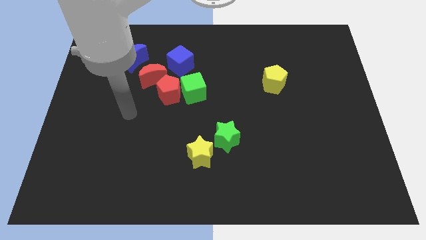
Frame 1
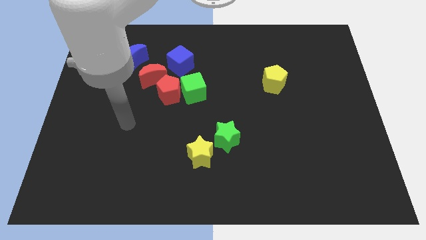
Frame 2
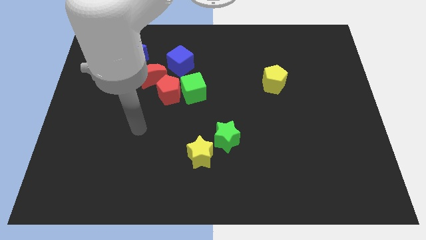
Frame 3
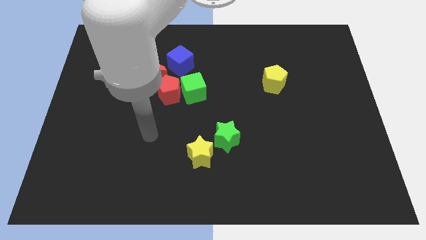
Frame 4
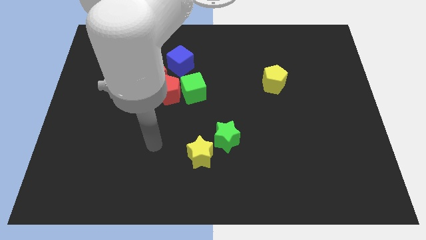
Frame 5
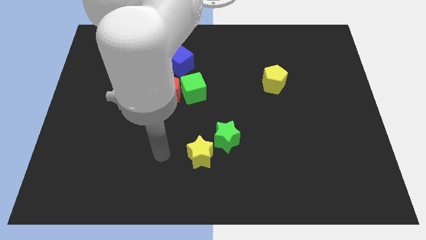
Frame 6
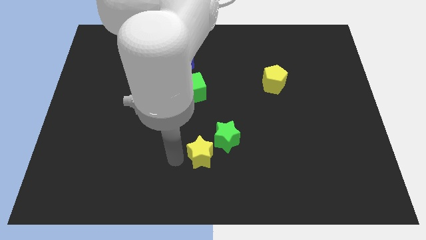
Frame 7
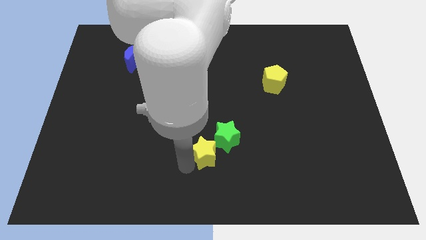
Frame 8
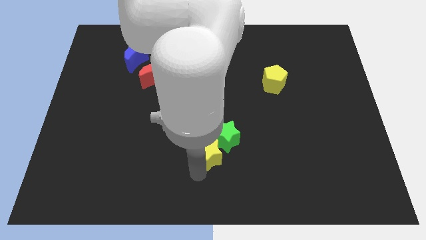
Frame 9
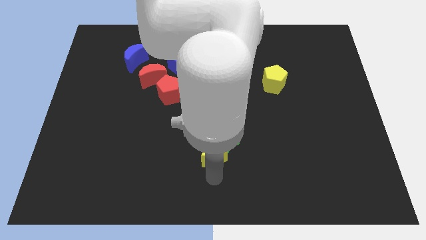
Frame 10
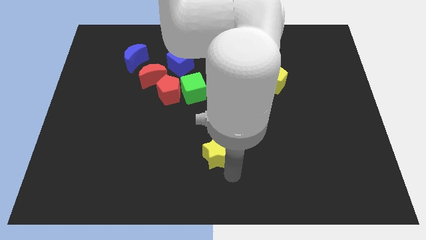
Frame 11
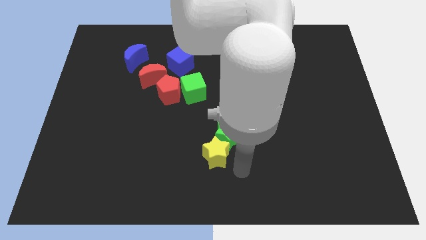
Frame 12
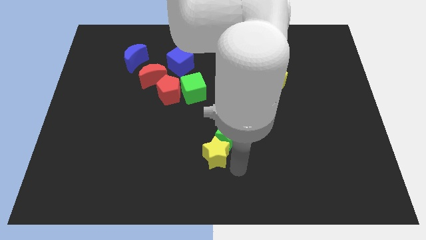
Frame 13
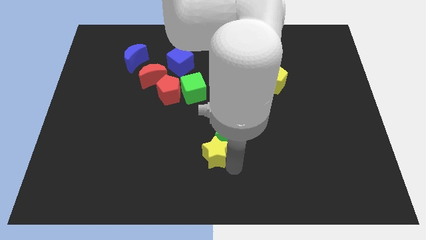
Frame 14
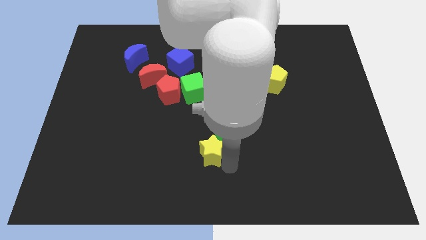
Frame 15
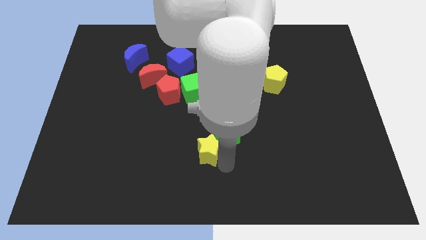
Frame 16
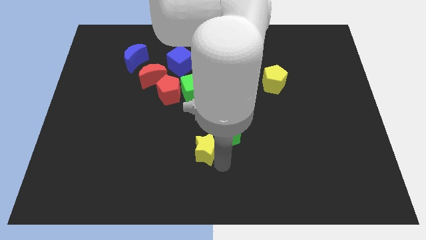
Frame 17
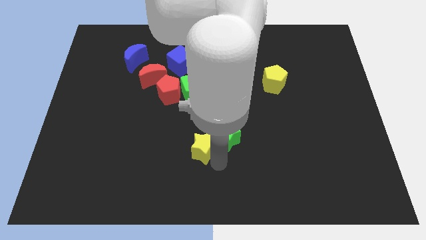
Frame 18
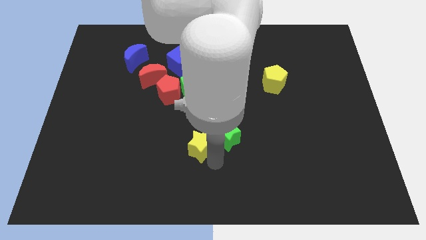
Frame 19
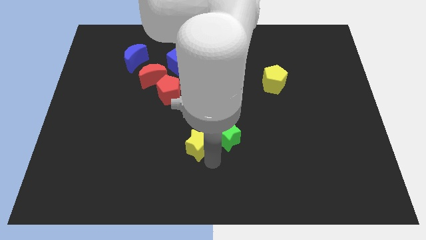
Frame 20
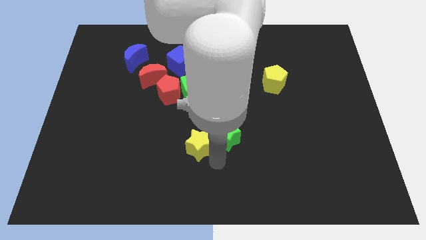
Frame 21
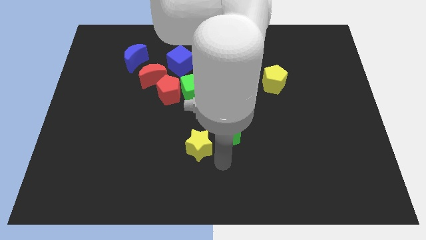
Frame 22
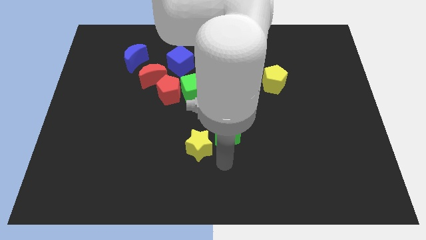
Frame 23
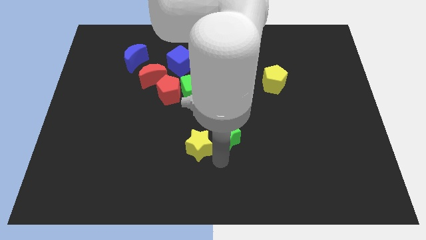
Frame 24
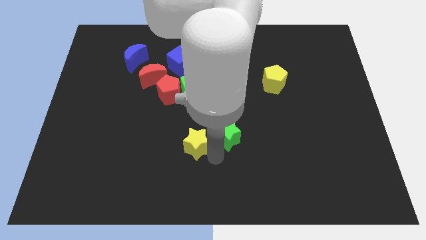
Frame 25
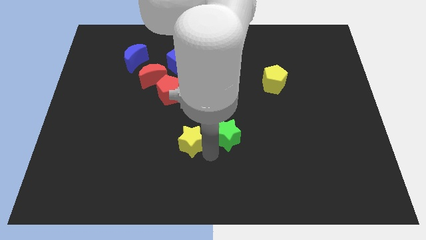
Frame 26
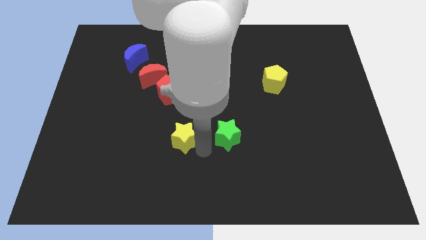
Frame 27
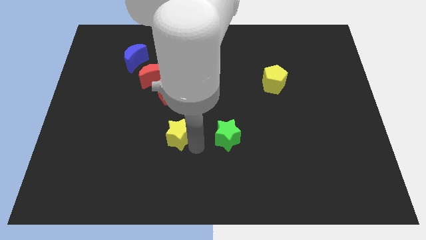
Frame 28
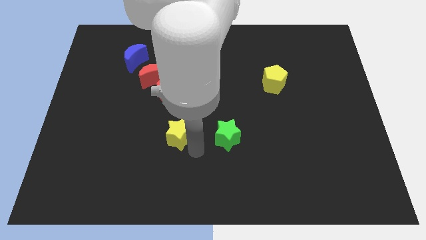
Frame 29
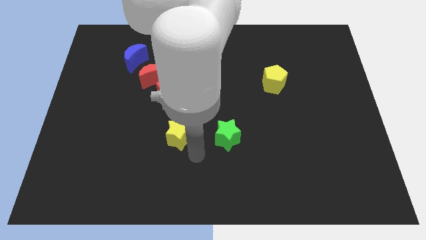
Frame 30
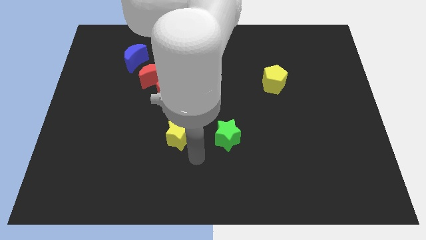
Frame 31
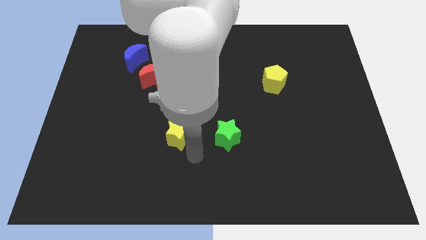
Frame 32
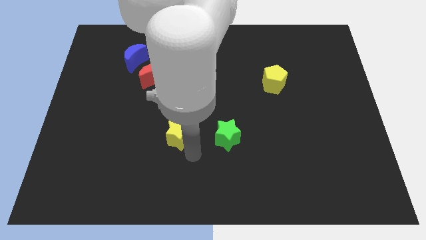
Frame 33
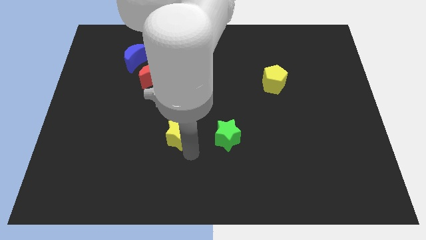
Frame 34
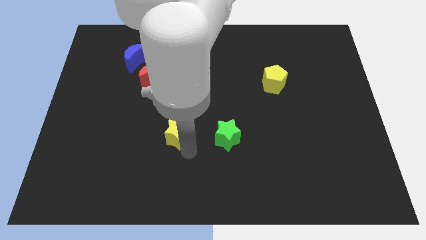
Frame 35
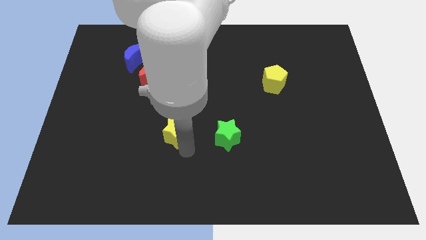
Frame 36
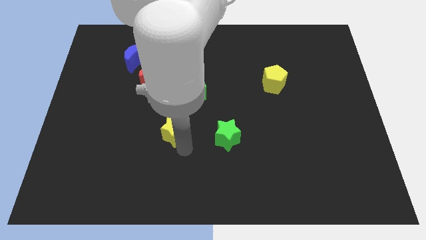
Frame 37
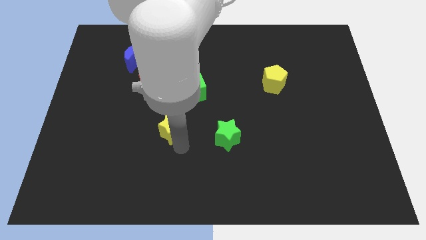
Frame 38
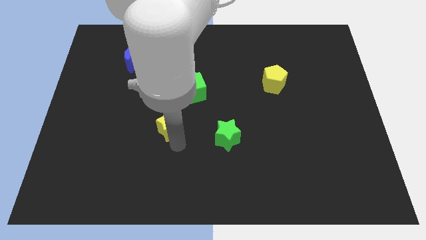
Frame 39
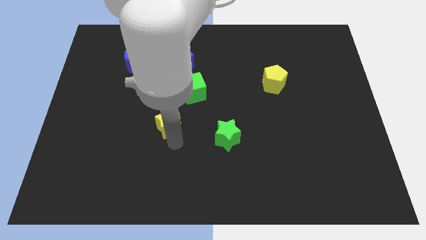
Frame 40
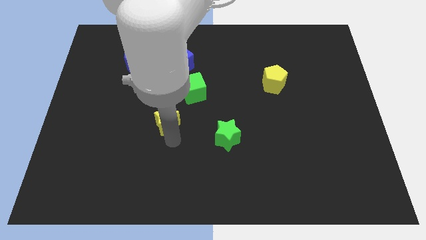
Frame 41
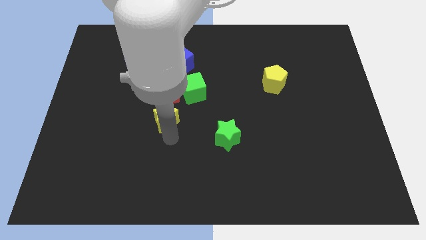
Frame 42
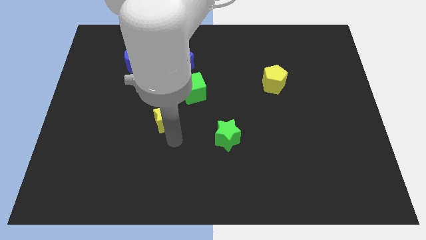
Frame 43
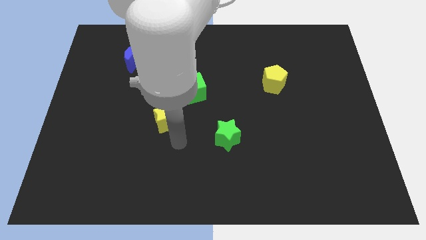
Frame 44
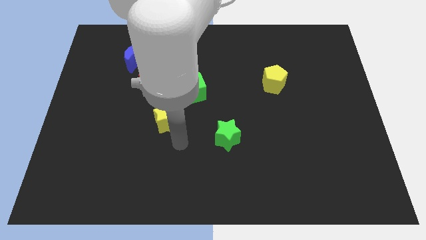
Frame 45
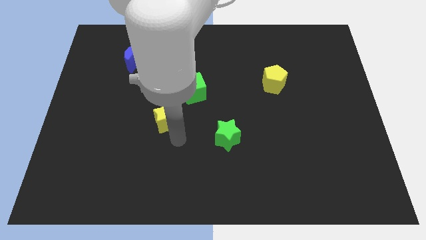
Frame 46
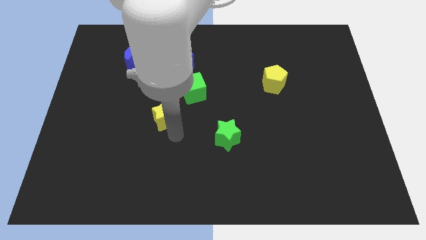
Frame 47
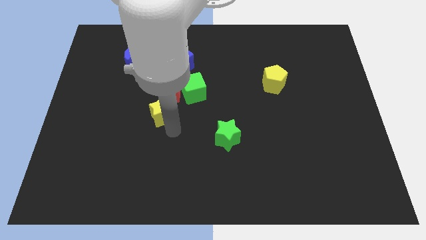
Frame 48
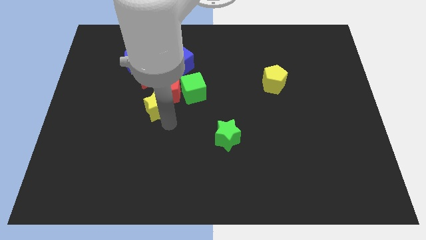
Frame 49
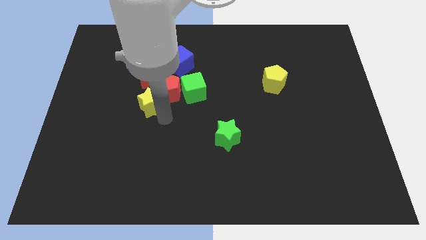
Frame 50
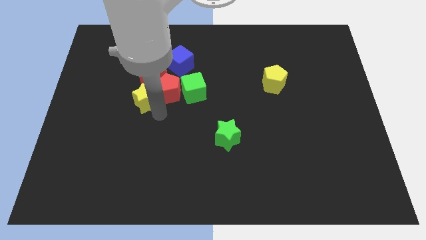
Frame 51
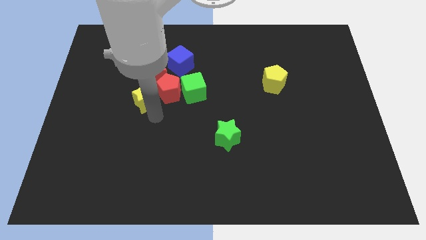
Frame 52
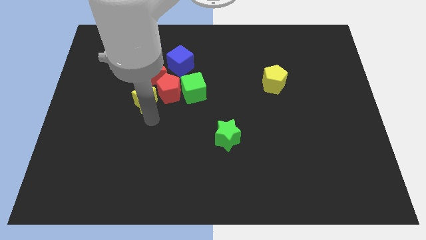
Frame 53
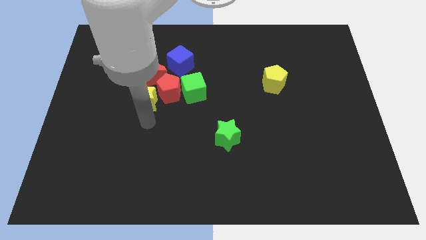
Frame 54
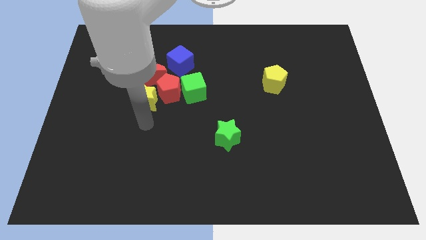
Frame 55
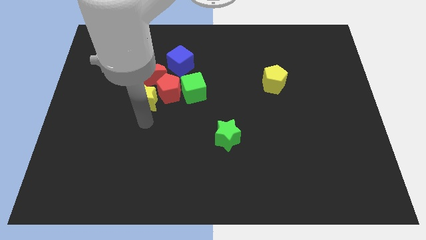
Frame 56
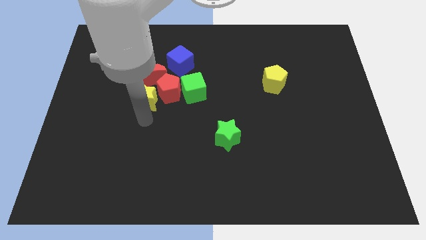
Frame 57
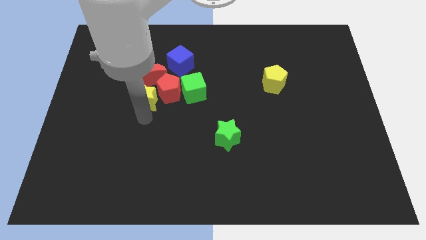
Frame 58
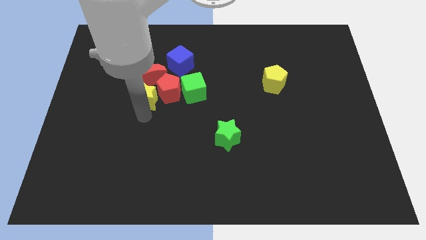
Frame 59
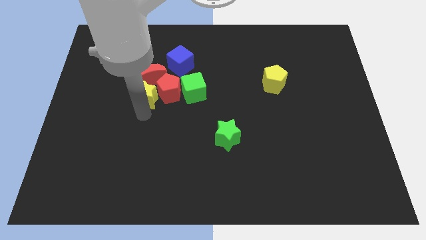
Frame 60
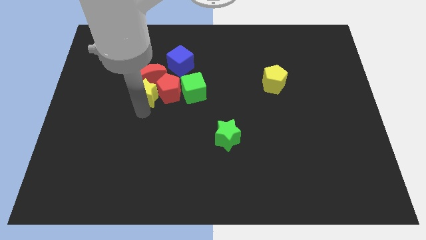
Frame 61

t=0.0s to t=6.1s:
push the yellow star close to the red moon

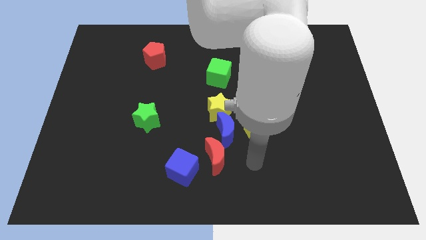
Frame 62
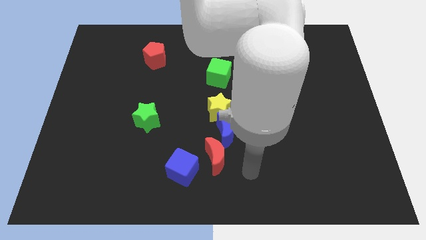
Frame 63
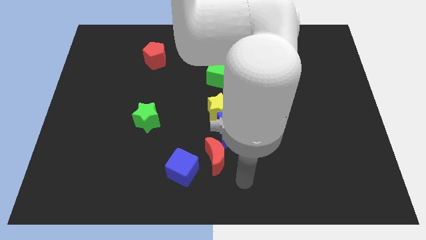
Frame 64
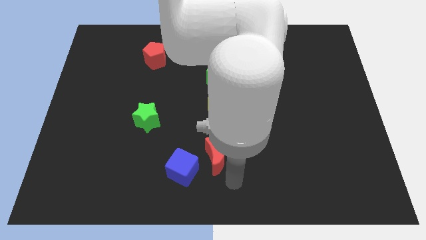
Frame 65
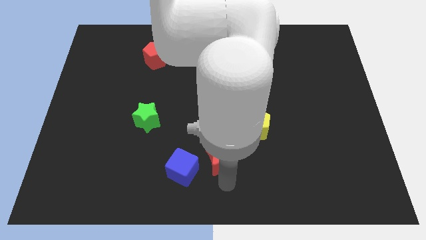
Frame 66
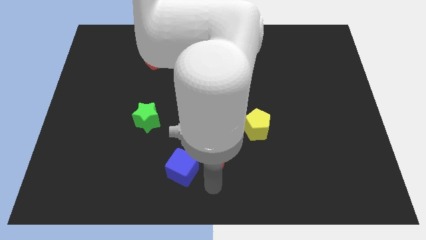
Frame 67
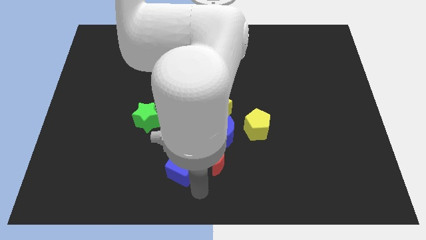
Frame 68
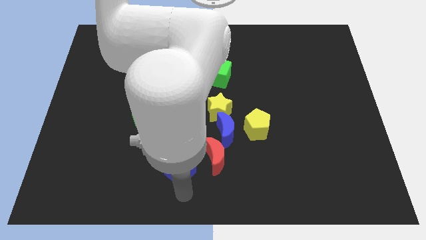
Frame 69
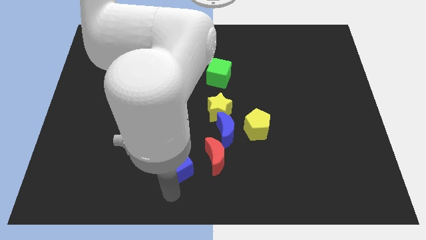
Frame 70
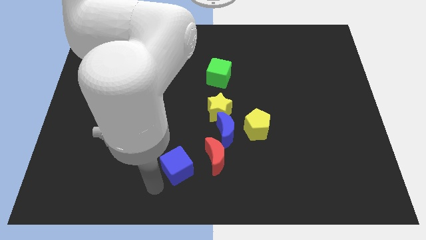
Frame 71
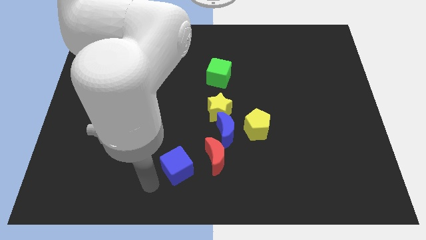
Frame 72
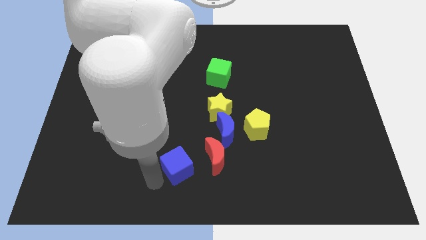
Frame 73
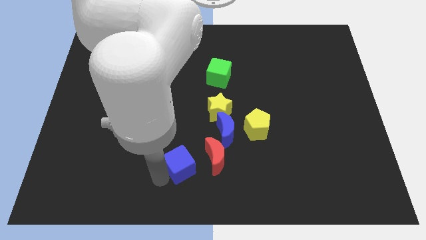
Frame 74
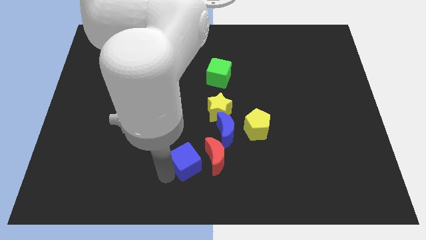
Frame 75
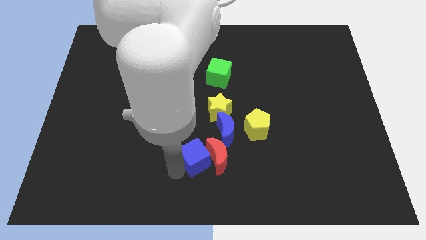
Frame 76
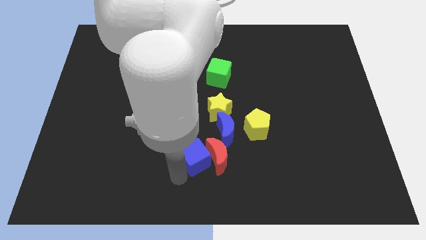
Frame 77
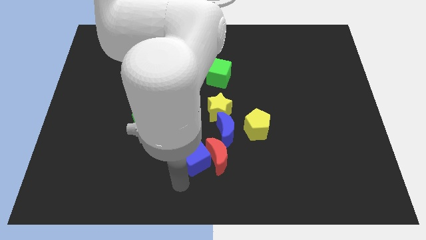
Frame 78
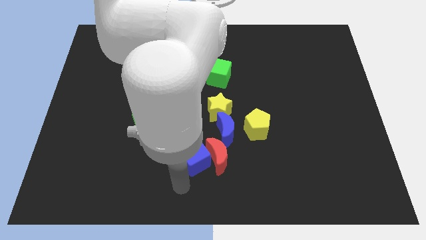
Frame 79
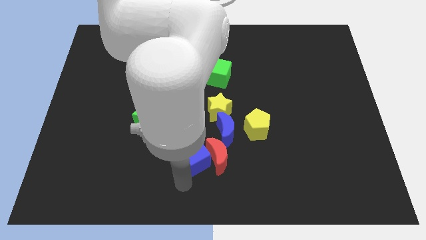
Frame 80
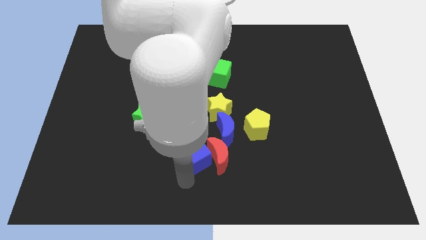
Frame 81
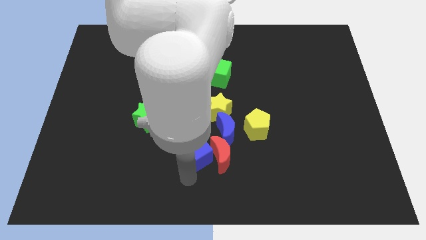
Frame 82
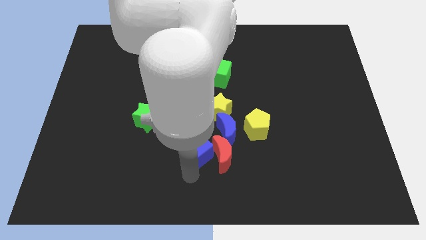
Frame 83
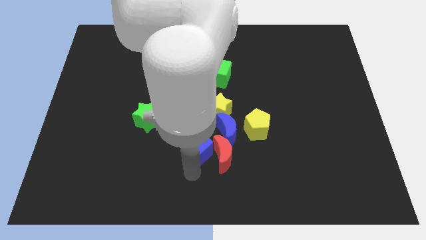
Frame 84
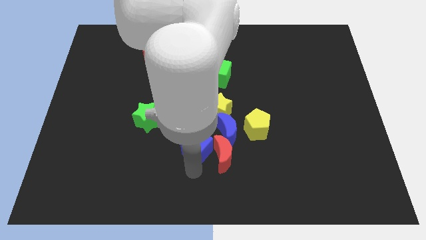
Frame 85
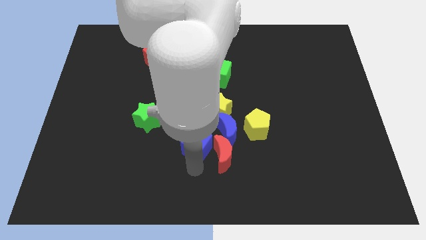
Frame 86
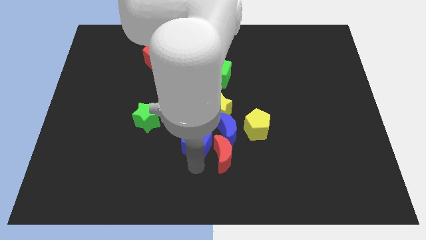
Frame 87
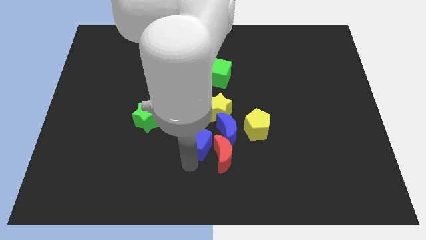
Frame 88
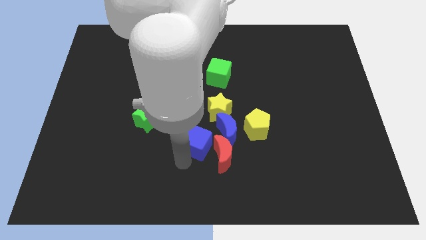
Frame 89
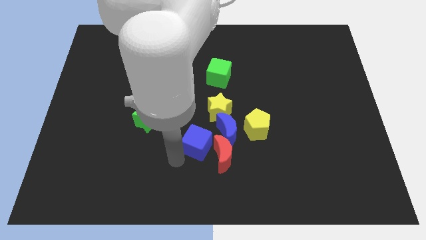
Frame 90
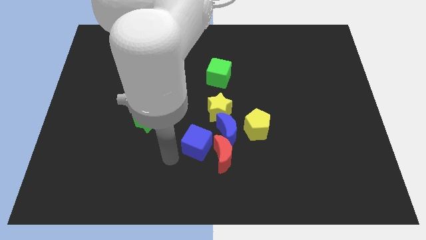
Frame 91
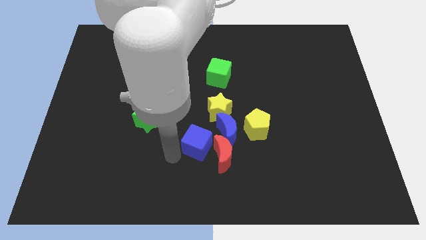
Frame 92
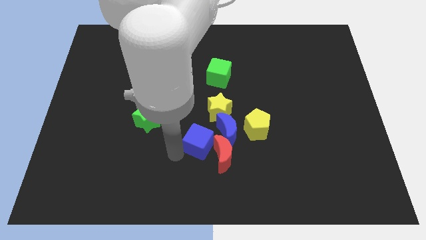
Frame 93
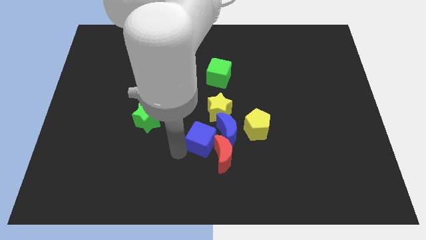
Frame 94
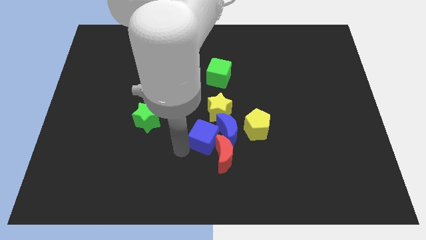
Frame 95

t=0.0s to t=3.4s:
slide the blue cube next to the blue moon
